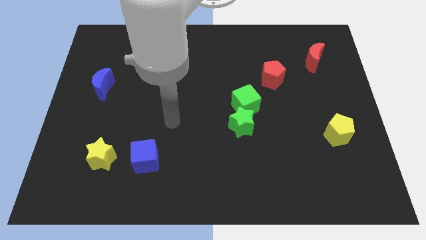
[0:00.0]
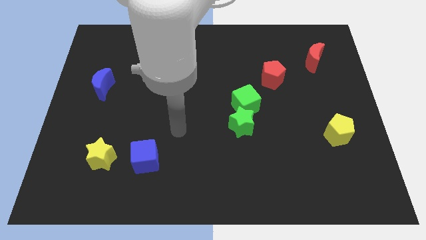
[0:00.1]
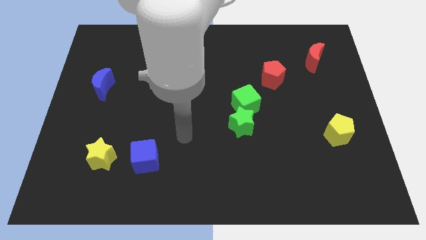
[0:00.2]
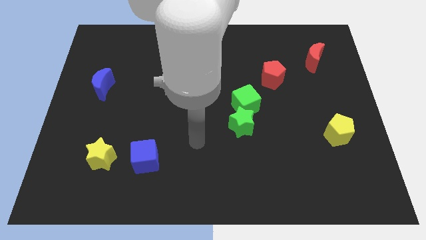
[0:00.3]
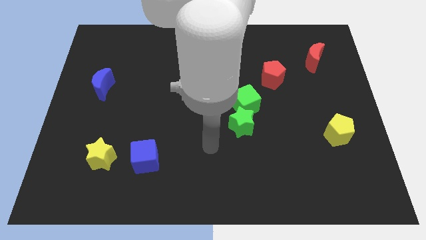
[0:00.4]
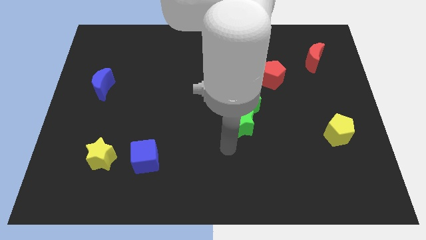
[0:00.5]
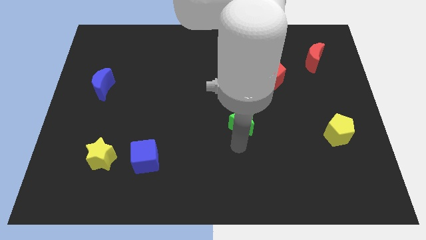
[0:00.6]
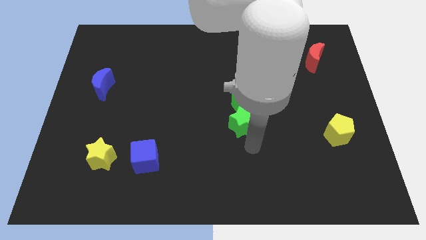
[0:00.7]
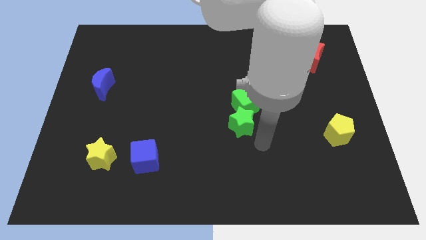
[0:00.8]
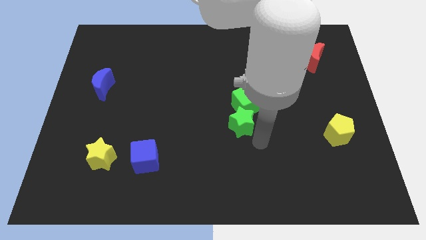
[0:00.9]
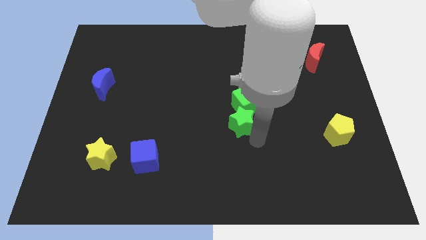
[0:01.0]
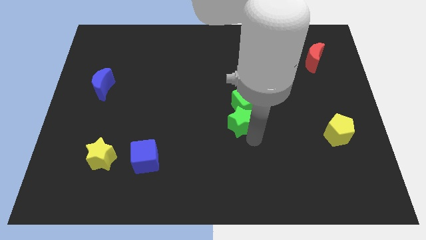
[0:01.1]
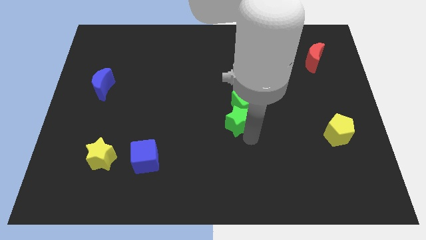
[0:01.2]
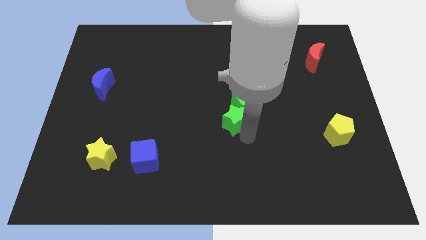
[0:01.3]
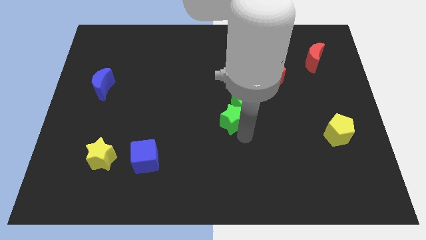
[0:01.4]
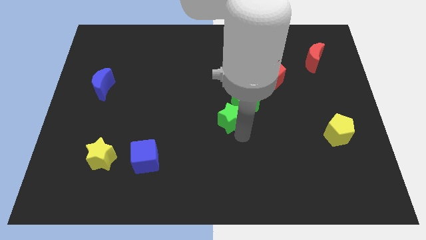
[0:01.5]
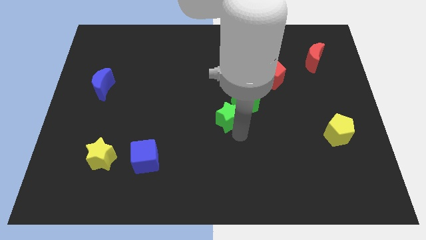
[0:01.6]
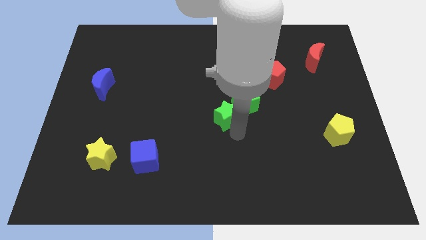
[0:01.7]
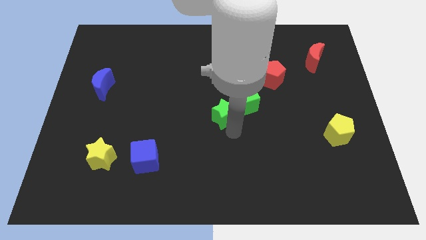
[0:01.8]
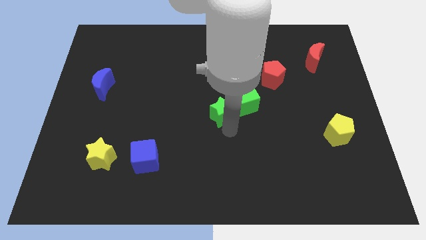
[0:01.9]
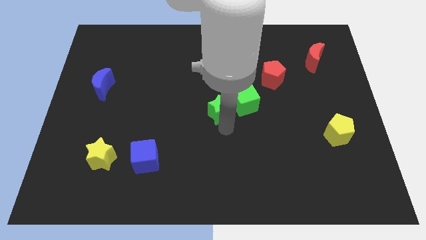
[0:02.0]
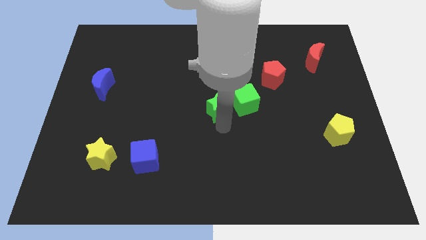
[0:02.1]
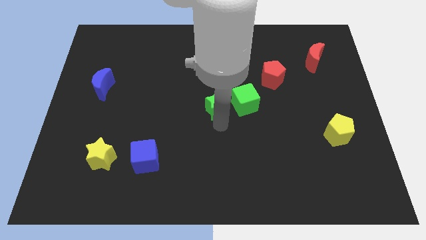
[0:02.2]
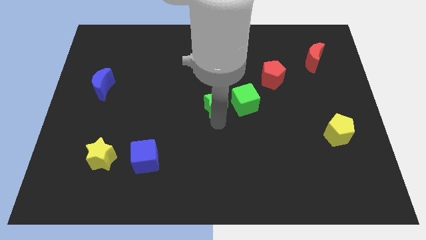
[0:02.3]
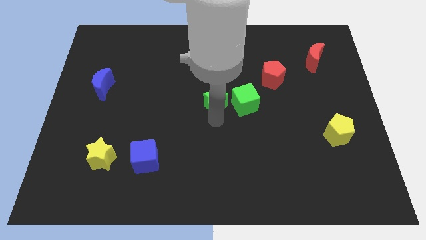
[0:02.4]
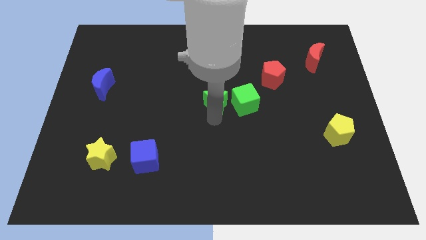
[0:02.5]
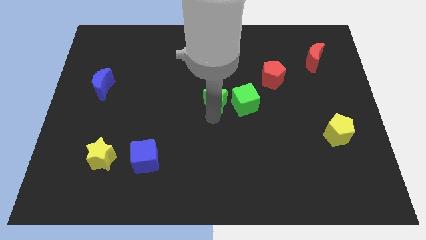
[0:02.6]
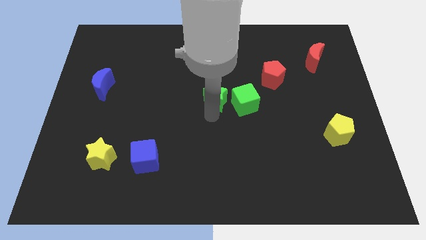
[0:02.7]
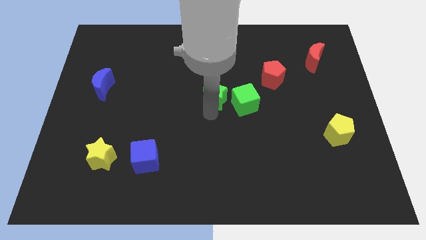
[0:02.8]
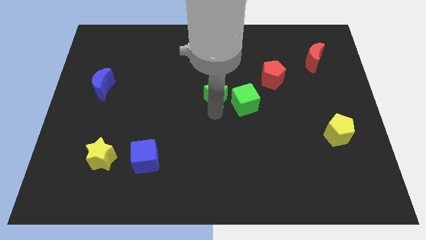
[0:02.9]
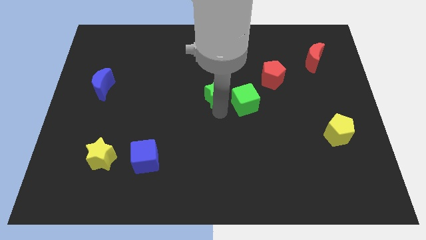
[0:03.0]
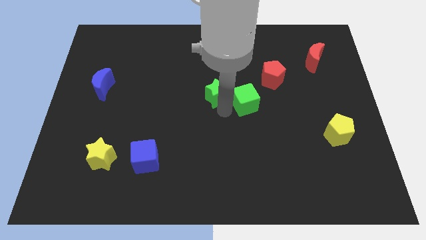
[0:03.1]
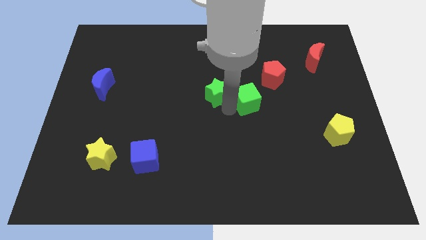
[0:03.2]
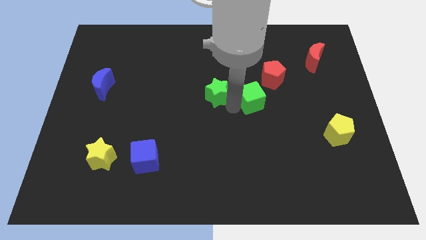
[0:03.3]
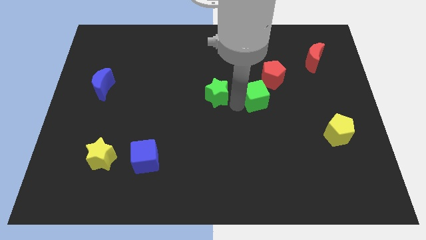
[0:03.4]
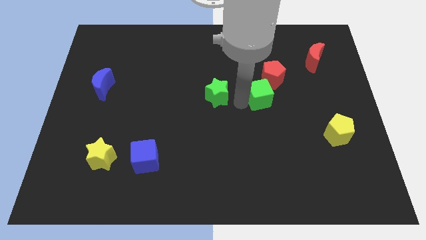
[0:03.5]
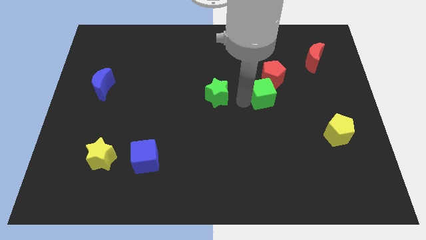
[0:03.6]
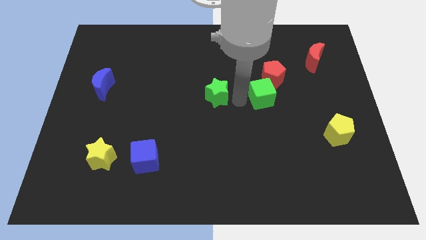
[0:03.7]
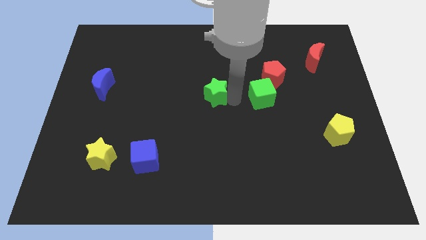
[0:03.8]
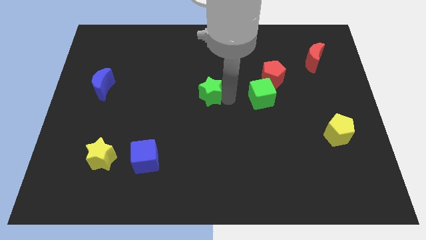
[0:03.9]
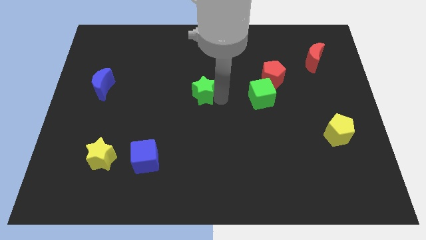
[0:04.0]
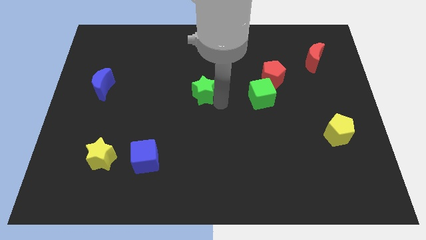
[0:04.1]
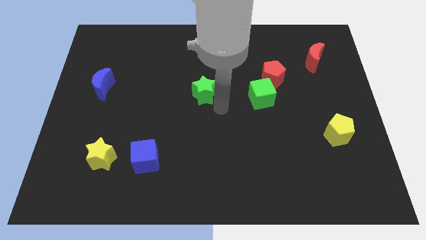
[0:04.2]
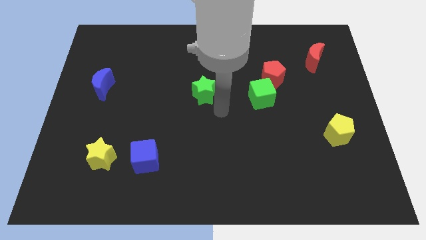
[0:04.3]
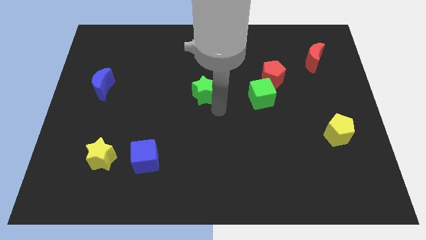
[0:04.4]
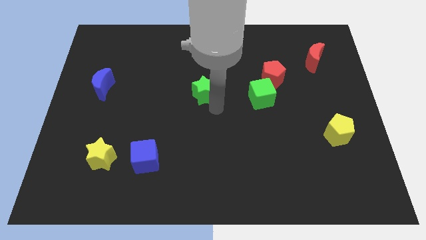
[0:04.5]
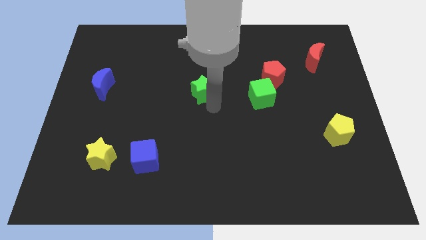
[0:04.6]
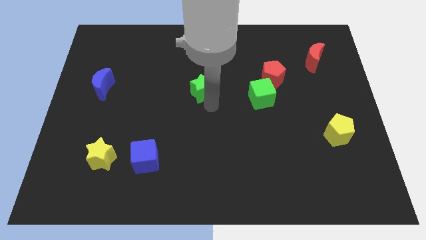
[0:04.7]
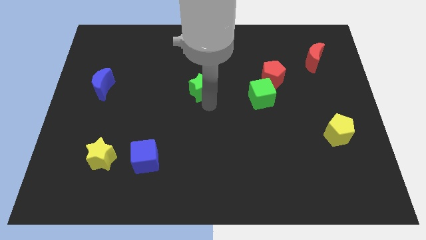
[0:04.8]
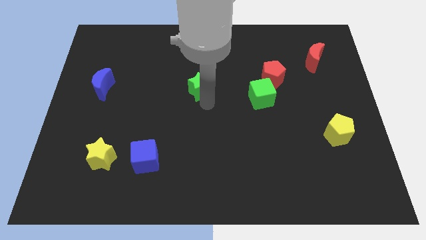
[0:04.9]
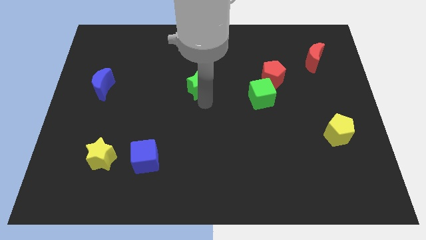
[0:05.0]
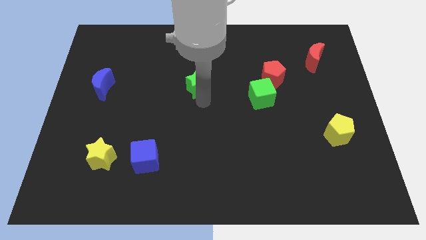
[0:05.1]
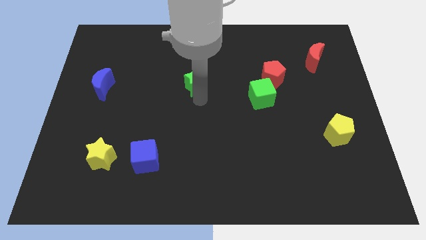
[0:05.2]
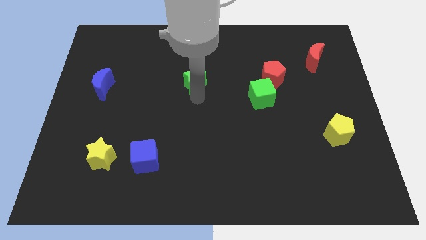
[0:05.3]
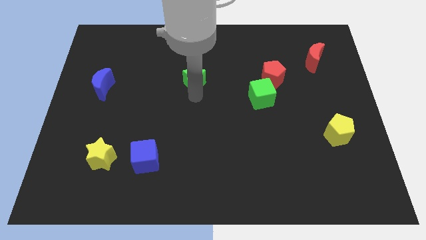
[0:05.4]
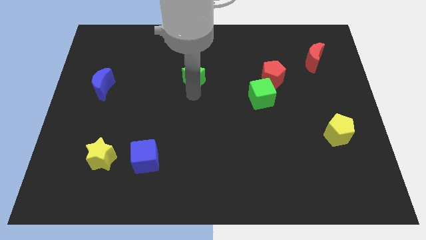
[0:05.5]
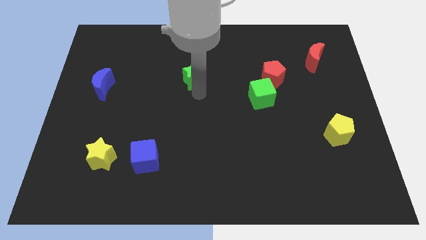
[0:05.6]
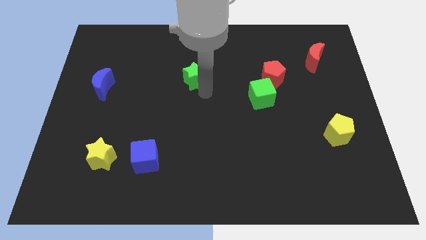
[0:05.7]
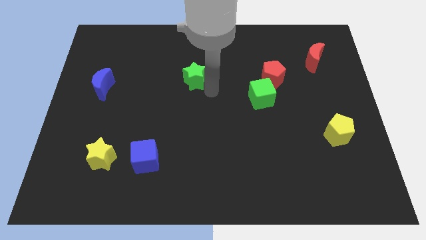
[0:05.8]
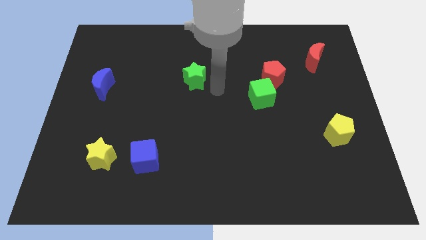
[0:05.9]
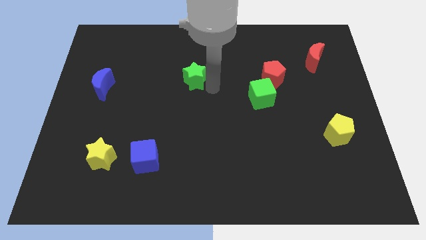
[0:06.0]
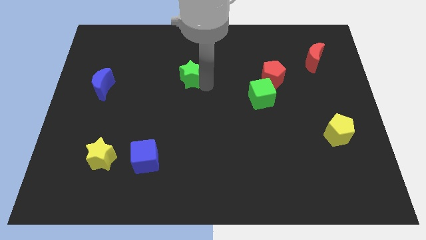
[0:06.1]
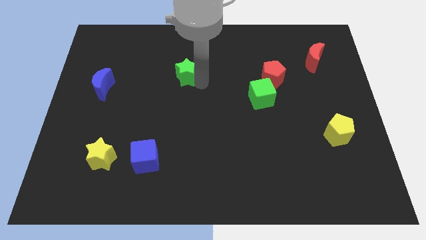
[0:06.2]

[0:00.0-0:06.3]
push the green star upwards and then to the left

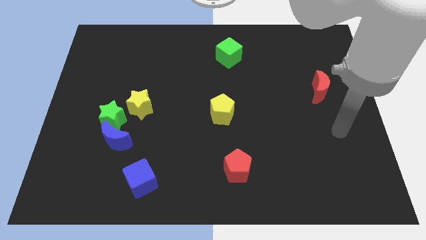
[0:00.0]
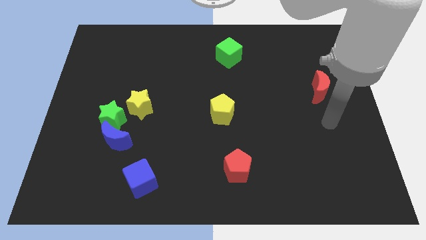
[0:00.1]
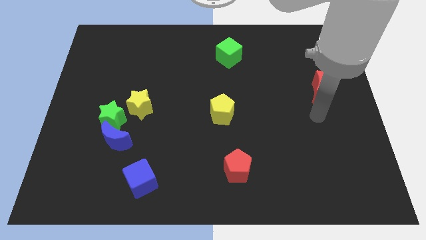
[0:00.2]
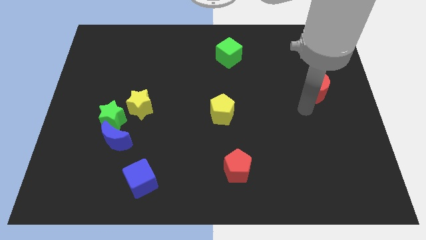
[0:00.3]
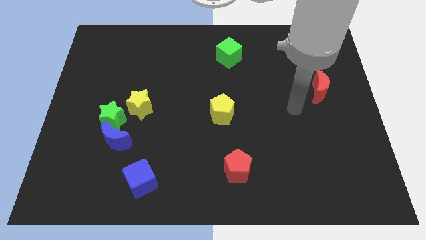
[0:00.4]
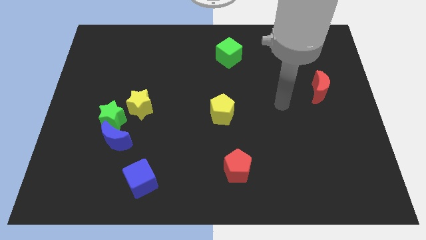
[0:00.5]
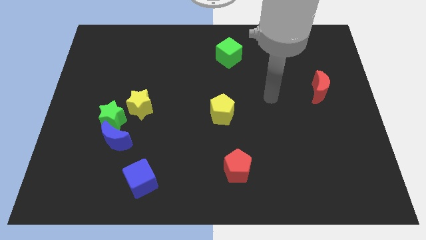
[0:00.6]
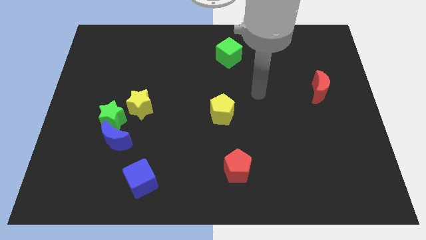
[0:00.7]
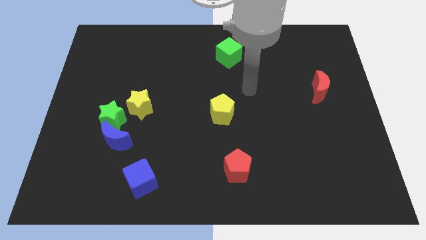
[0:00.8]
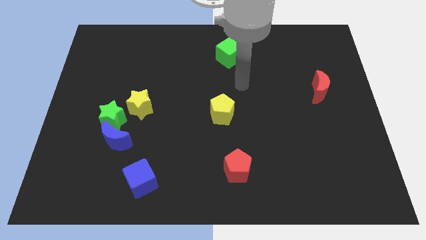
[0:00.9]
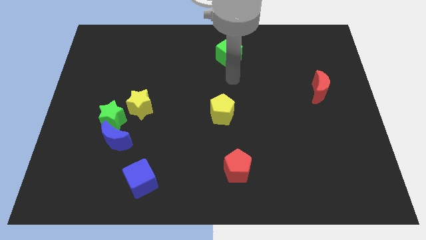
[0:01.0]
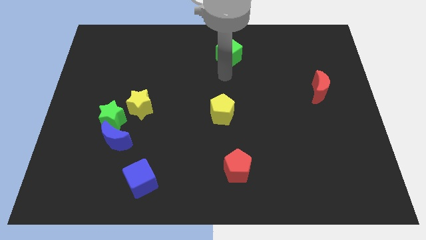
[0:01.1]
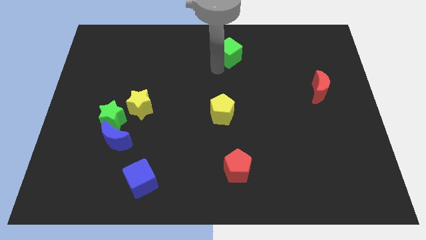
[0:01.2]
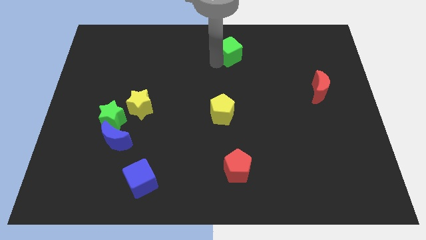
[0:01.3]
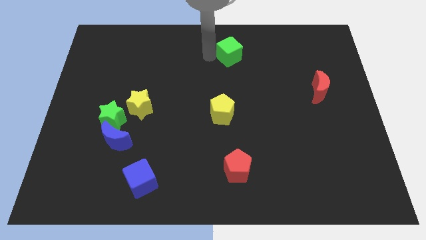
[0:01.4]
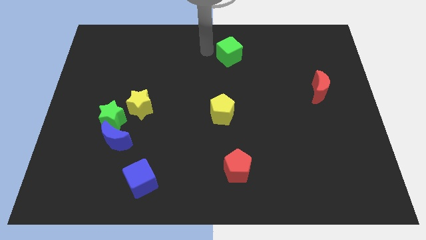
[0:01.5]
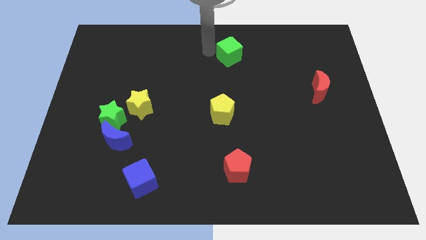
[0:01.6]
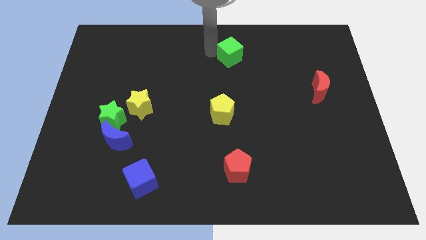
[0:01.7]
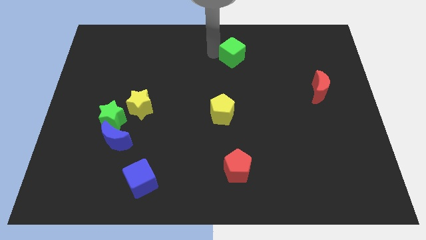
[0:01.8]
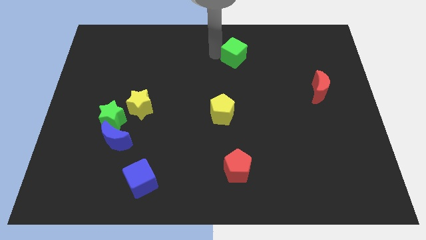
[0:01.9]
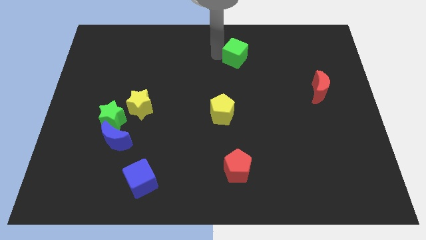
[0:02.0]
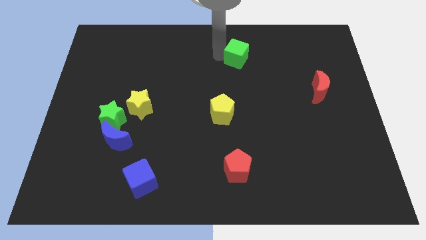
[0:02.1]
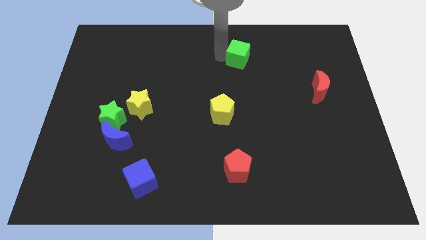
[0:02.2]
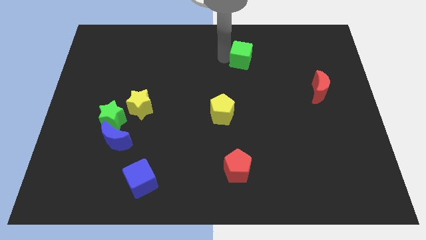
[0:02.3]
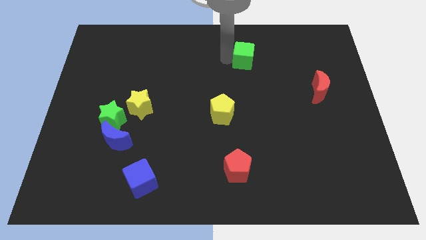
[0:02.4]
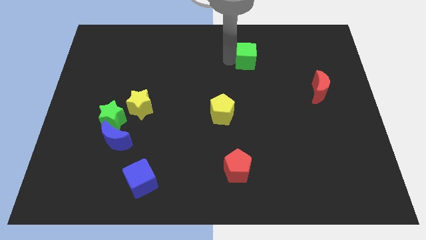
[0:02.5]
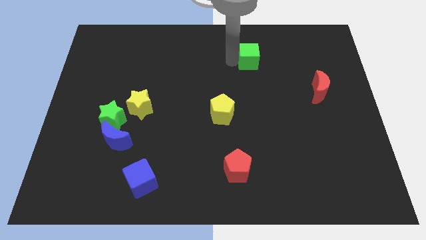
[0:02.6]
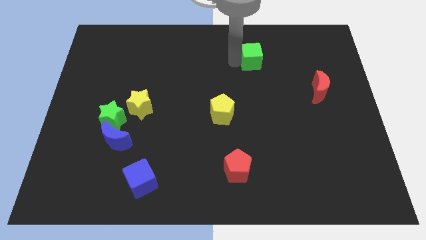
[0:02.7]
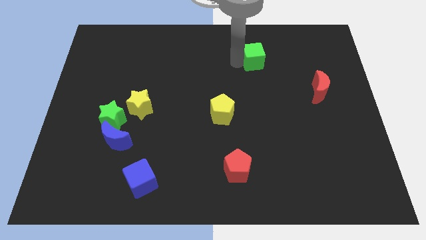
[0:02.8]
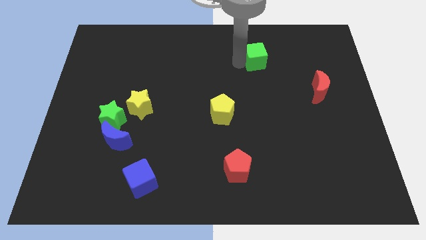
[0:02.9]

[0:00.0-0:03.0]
slightly move the green cube right
